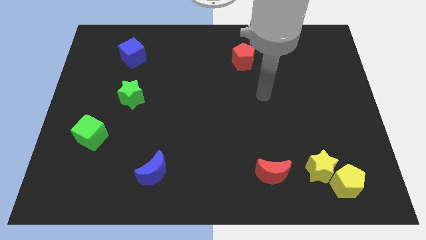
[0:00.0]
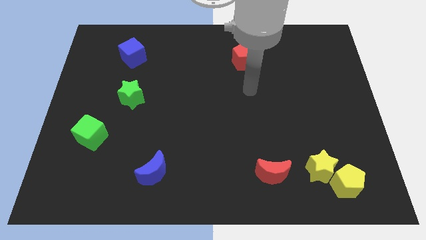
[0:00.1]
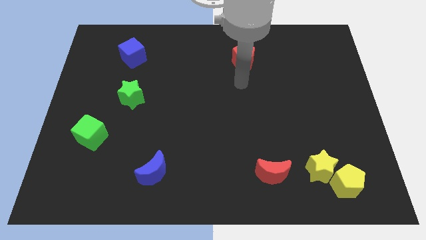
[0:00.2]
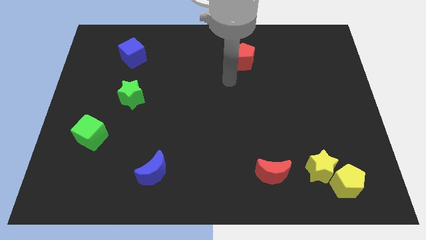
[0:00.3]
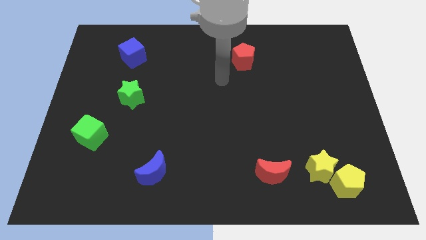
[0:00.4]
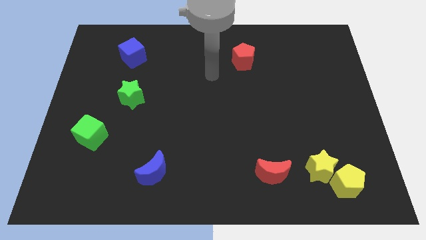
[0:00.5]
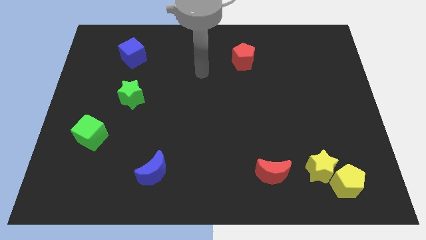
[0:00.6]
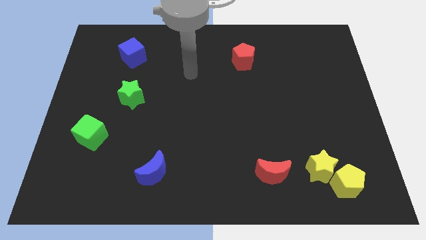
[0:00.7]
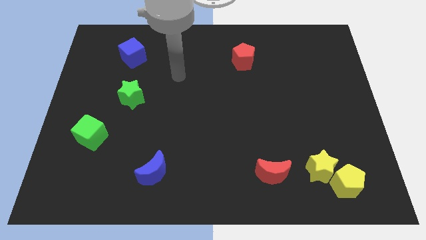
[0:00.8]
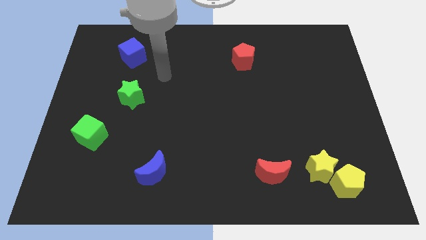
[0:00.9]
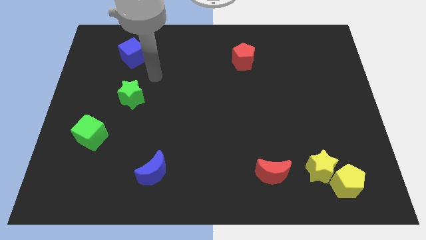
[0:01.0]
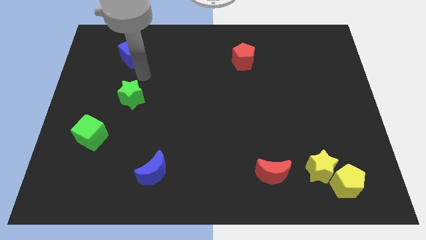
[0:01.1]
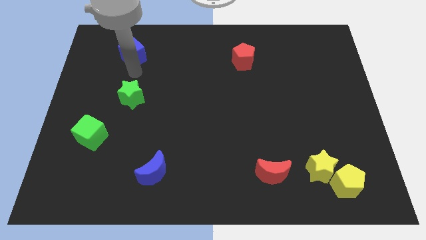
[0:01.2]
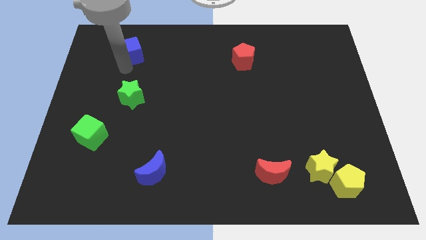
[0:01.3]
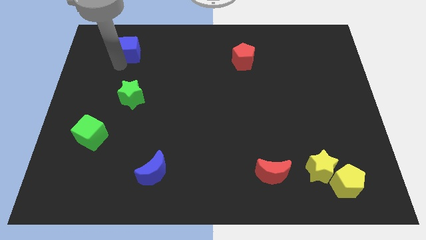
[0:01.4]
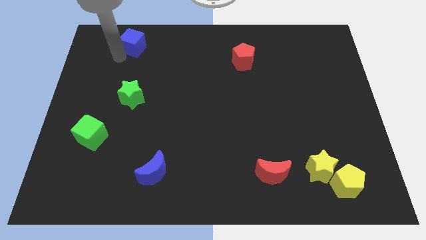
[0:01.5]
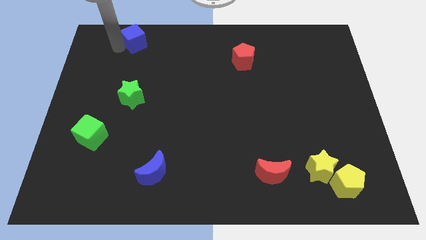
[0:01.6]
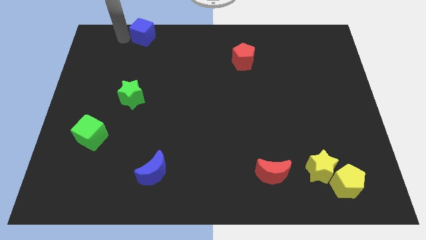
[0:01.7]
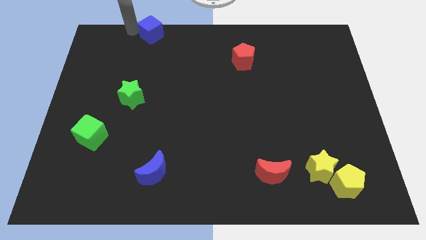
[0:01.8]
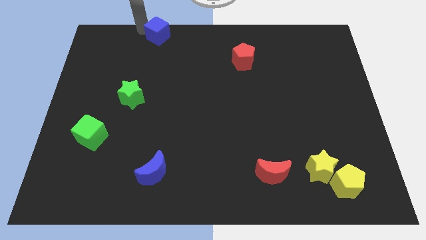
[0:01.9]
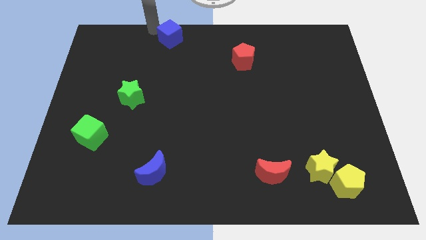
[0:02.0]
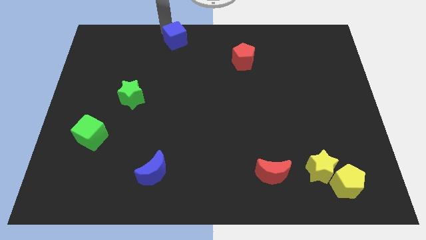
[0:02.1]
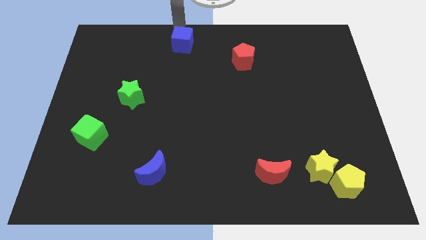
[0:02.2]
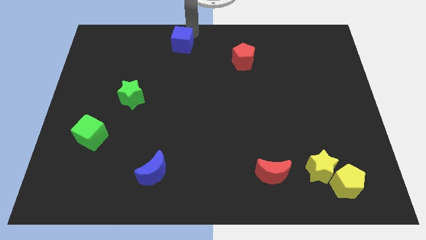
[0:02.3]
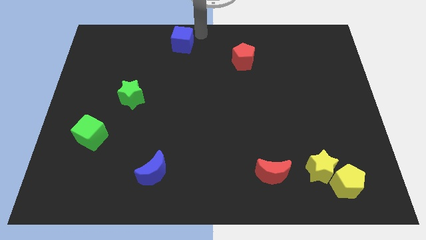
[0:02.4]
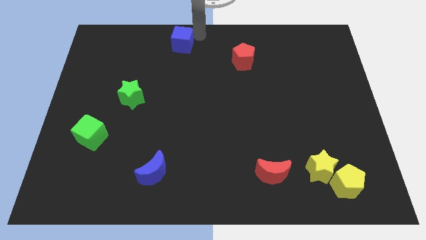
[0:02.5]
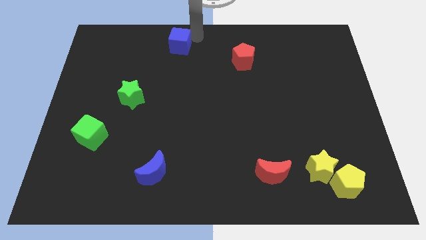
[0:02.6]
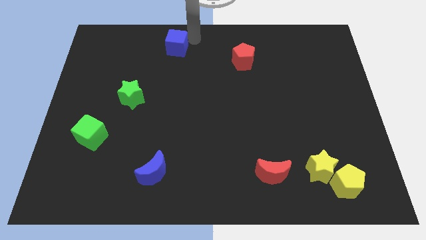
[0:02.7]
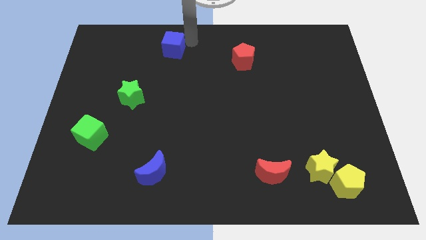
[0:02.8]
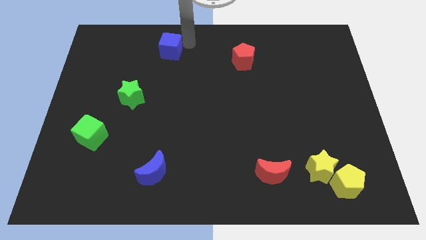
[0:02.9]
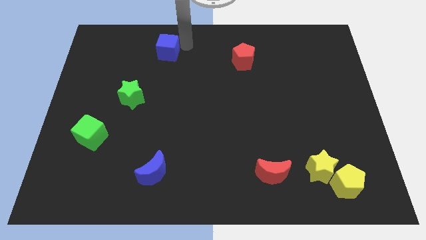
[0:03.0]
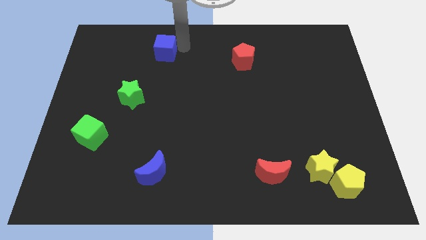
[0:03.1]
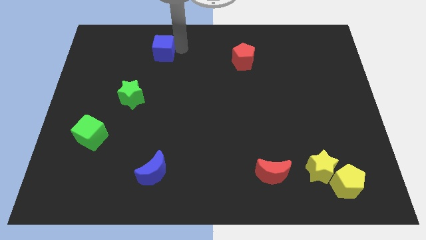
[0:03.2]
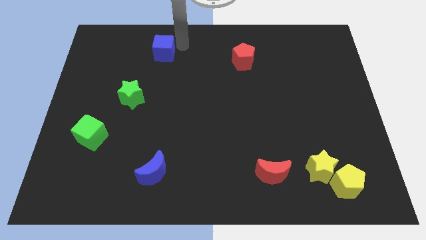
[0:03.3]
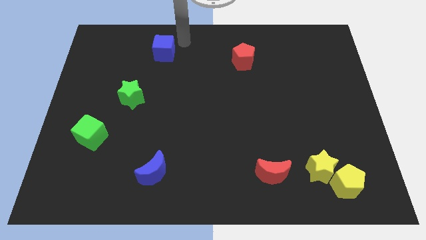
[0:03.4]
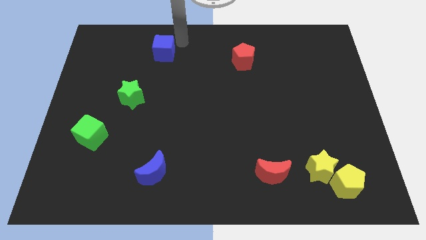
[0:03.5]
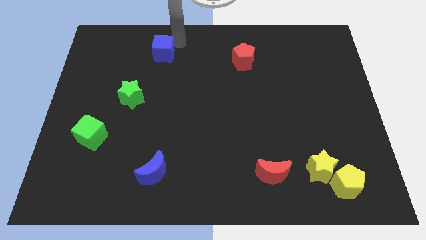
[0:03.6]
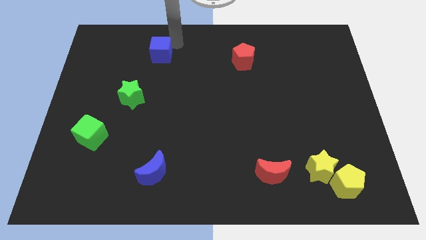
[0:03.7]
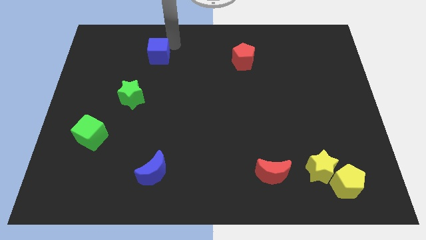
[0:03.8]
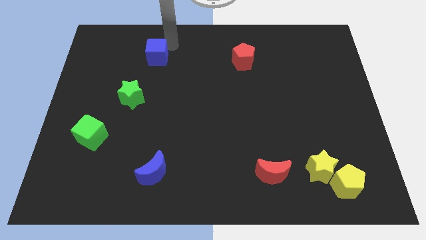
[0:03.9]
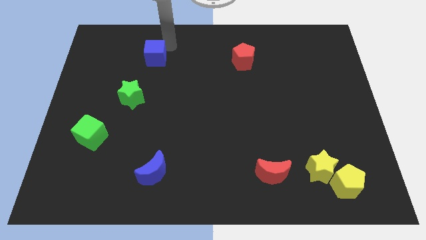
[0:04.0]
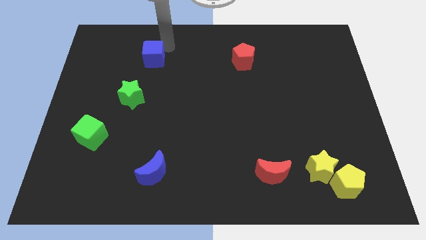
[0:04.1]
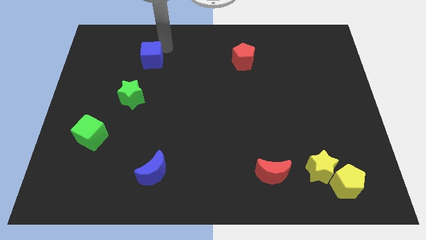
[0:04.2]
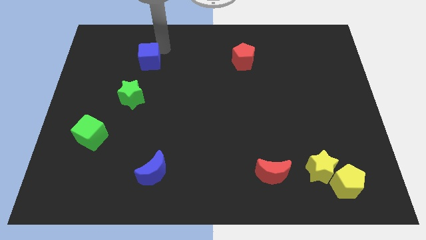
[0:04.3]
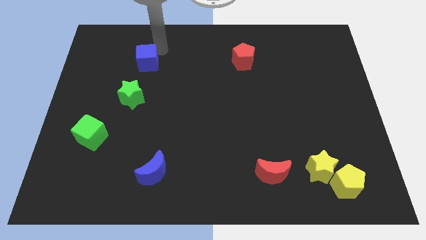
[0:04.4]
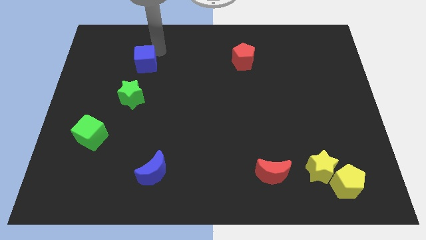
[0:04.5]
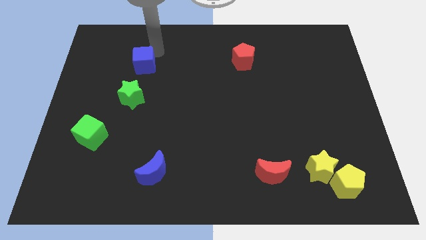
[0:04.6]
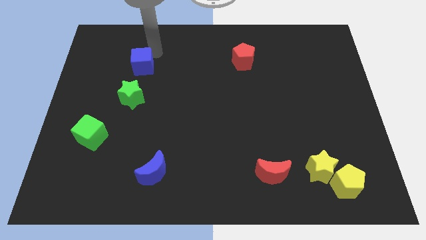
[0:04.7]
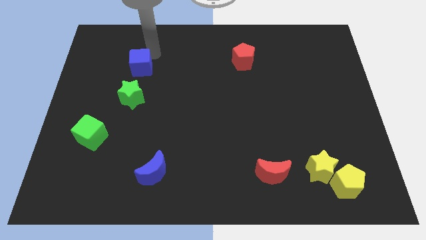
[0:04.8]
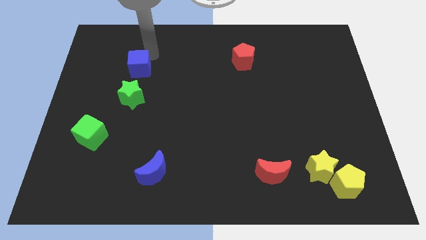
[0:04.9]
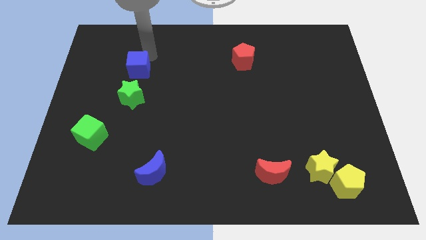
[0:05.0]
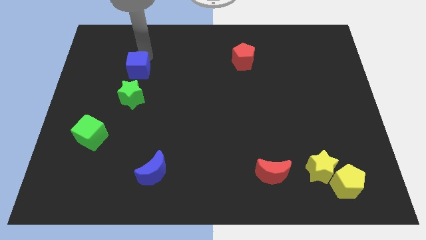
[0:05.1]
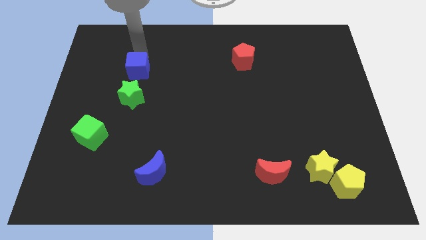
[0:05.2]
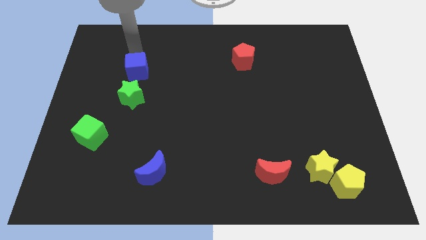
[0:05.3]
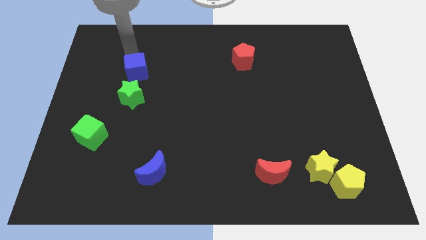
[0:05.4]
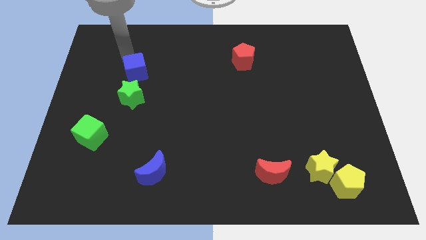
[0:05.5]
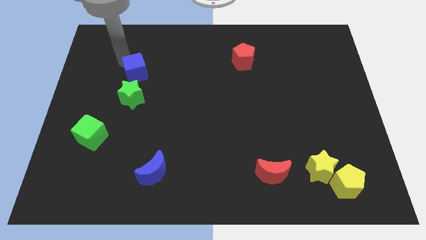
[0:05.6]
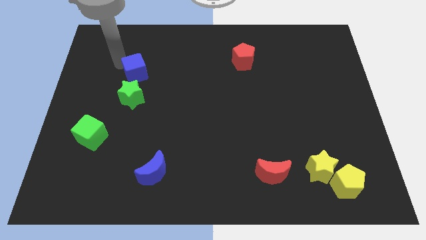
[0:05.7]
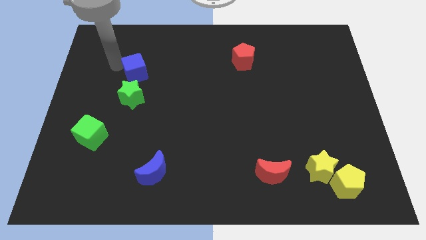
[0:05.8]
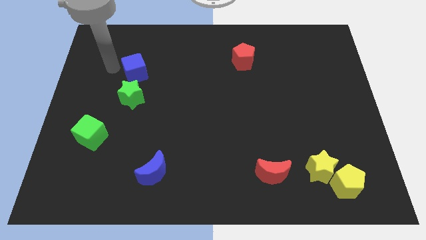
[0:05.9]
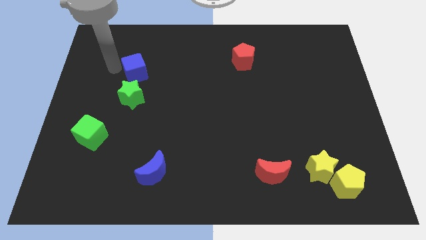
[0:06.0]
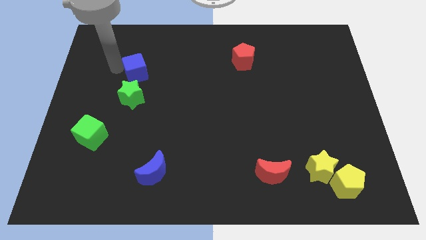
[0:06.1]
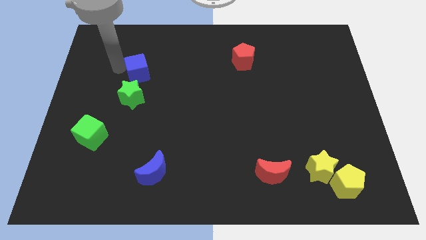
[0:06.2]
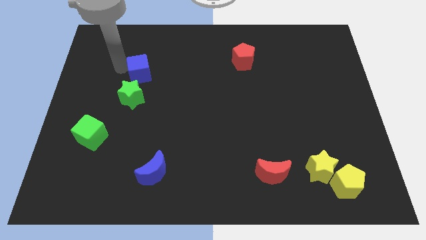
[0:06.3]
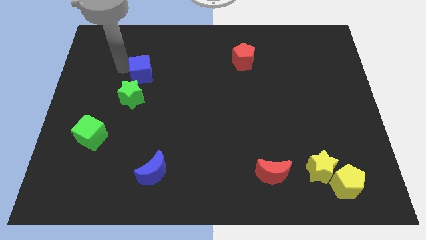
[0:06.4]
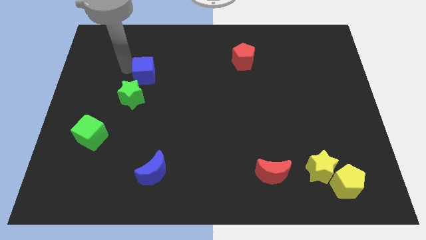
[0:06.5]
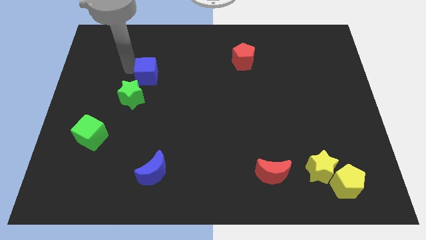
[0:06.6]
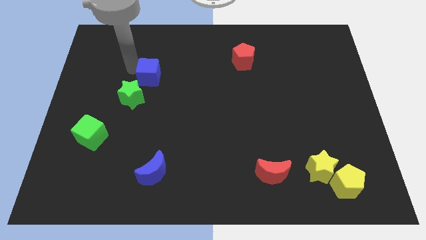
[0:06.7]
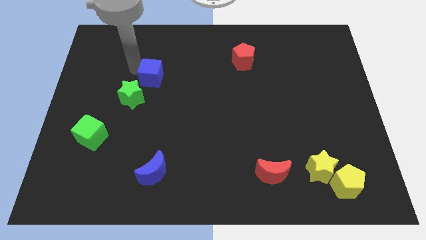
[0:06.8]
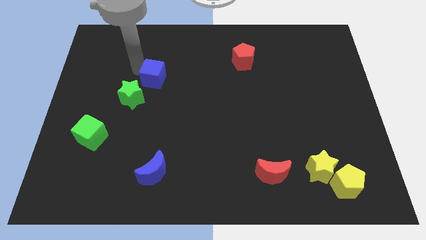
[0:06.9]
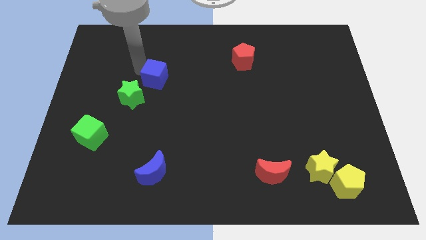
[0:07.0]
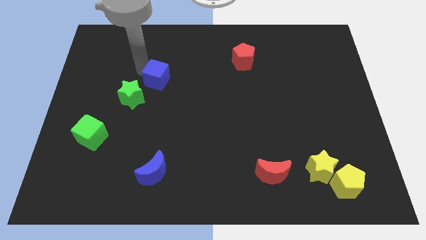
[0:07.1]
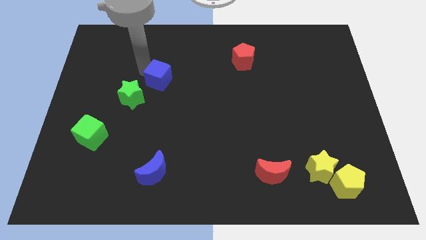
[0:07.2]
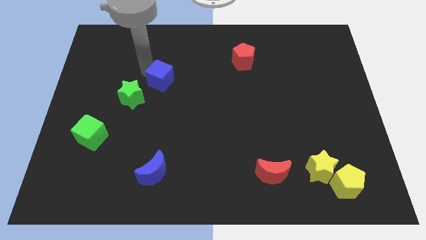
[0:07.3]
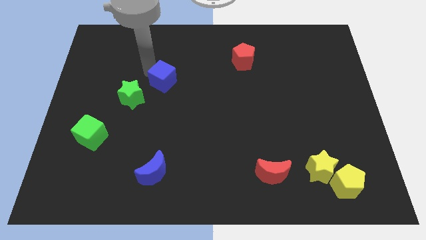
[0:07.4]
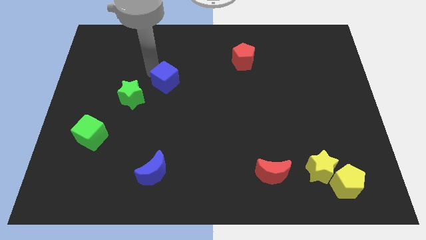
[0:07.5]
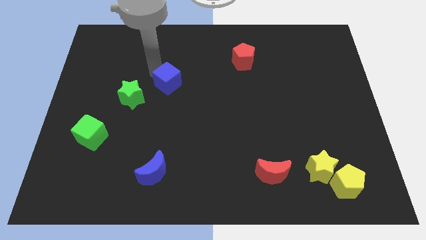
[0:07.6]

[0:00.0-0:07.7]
put the blue cube right of the green star
